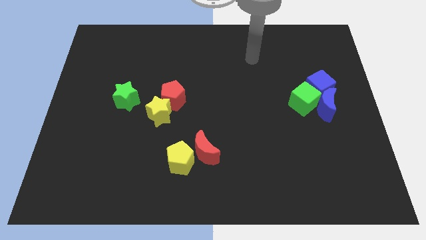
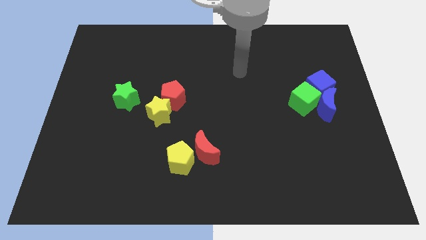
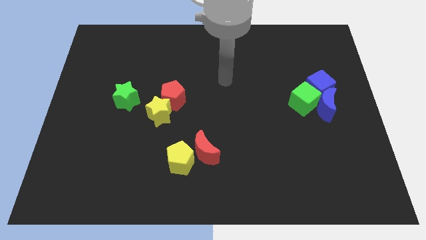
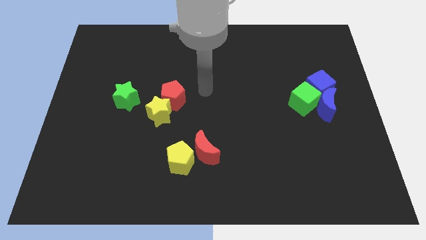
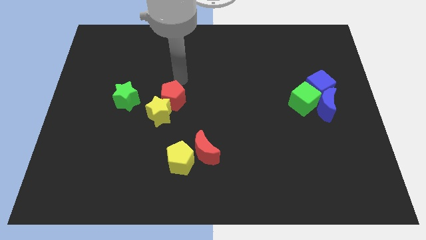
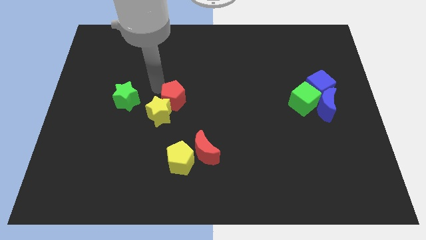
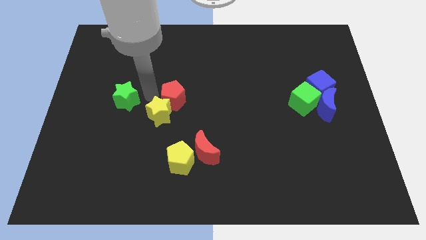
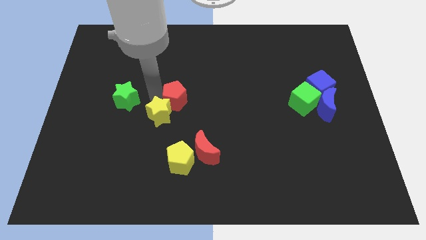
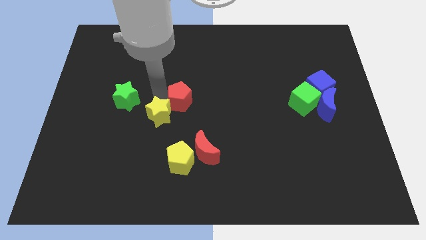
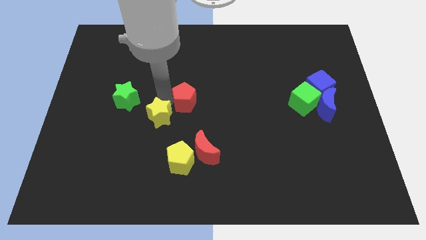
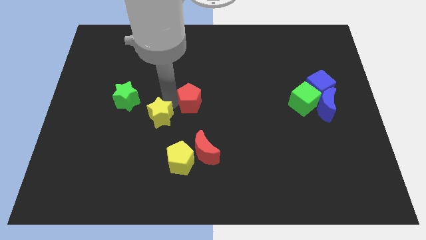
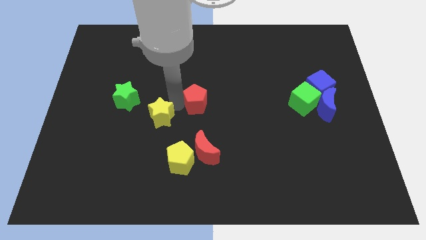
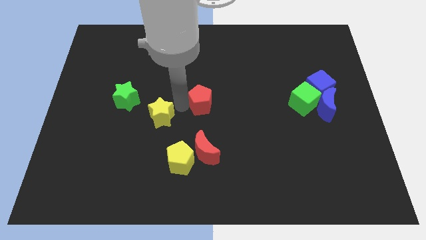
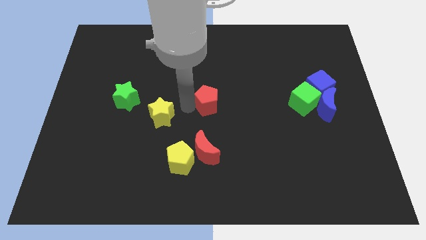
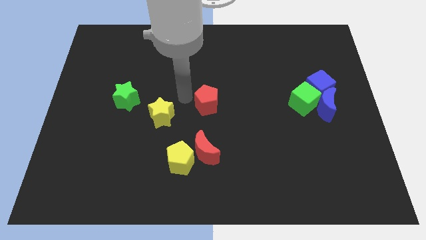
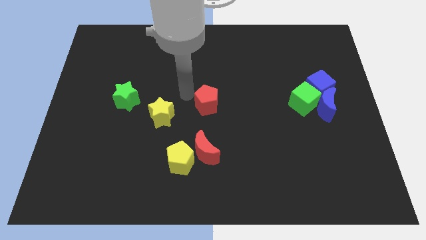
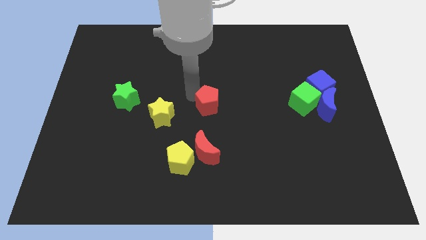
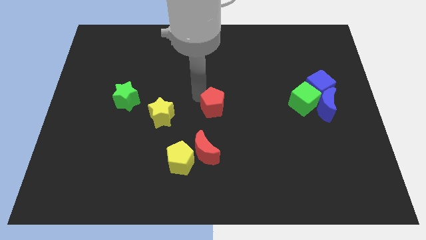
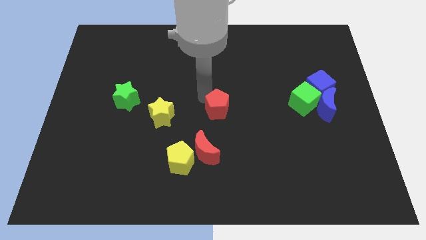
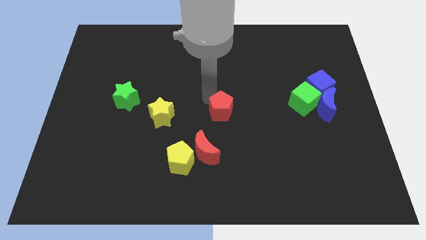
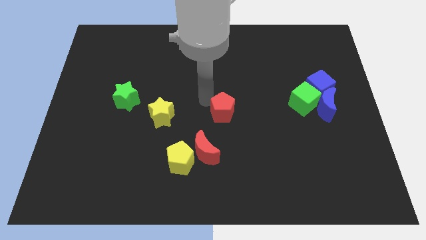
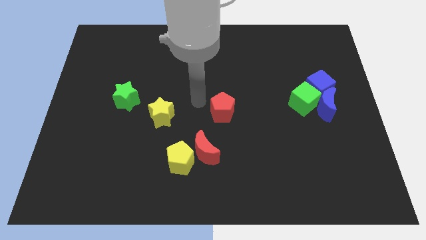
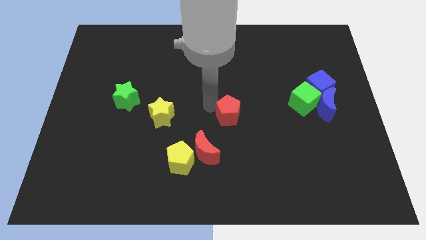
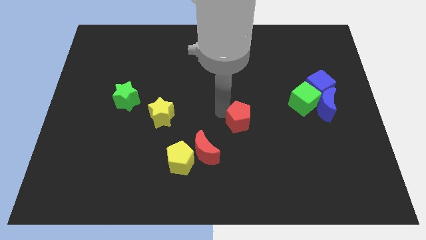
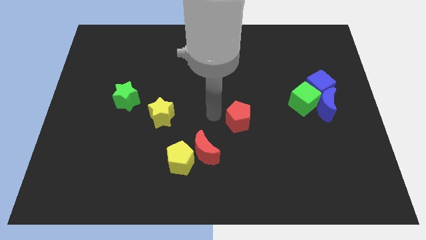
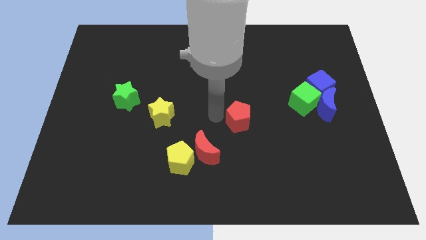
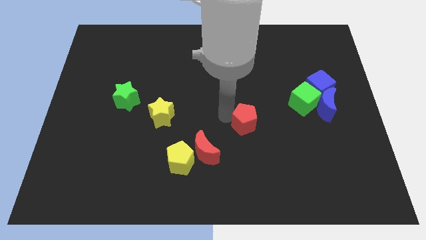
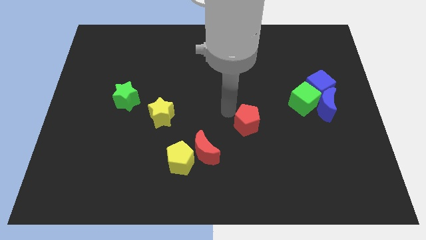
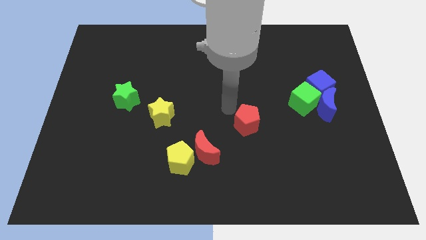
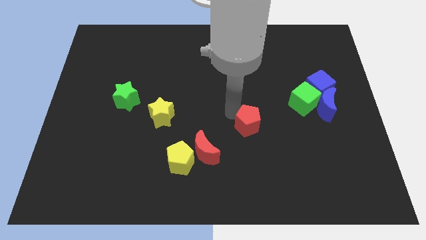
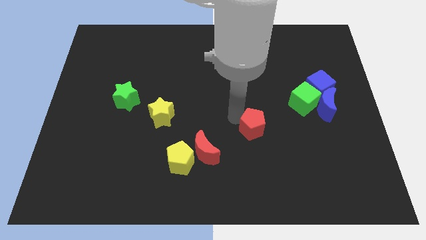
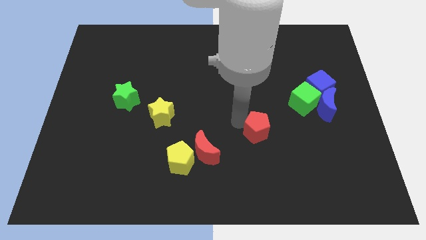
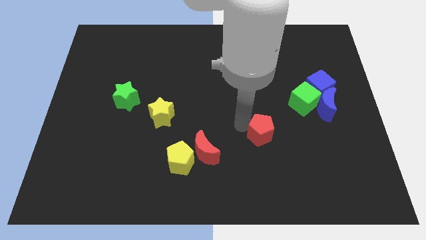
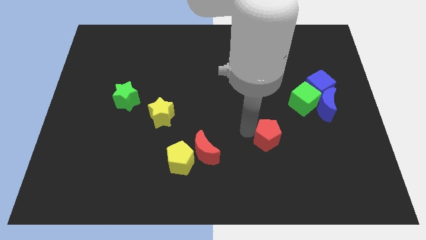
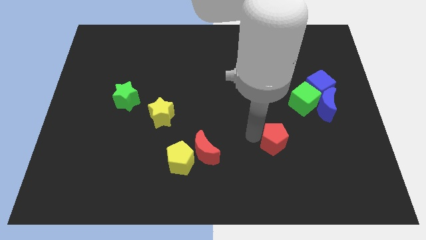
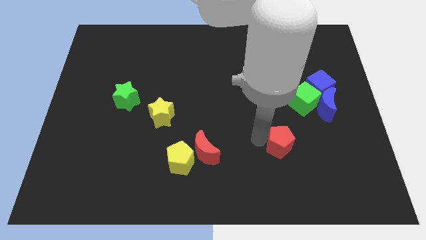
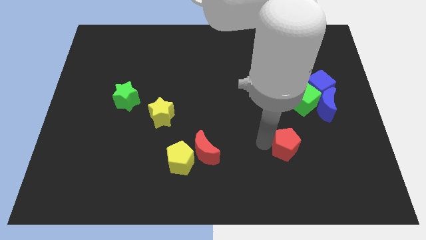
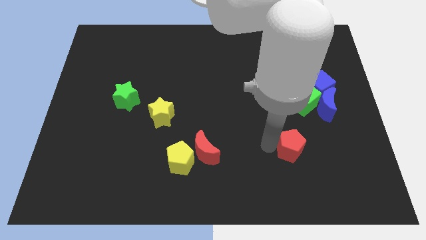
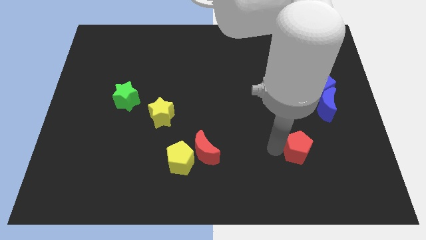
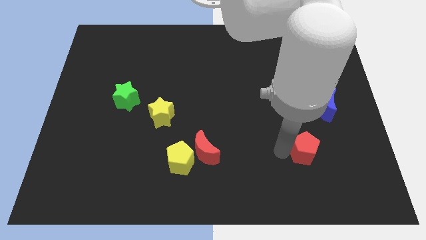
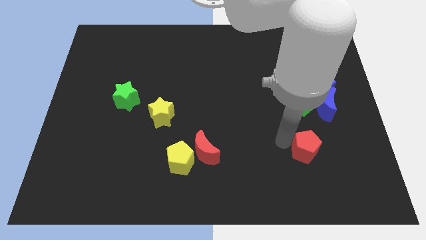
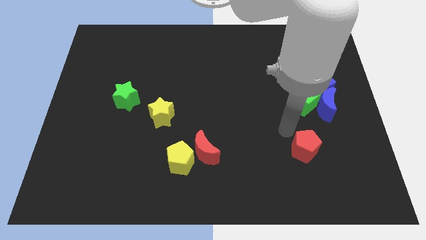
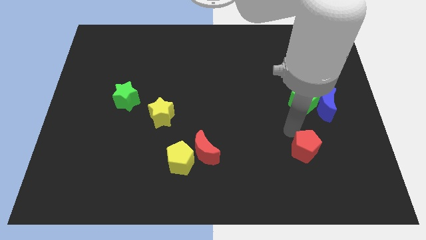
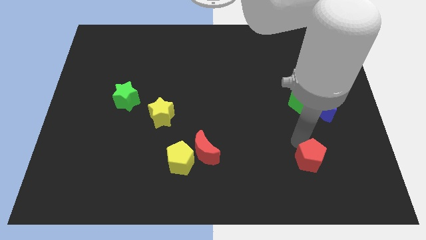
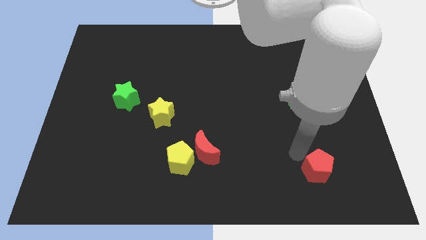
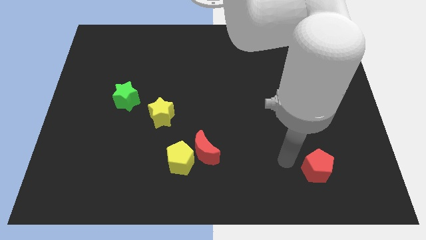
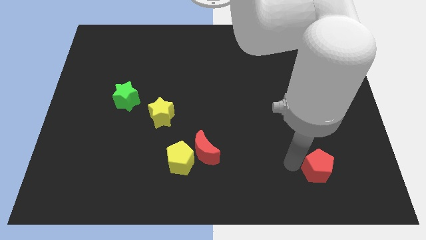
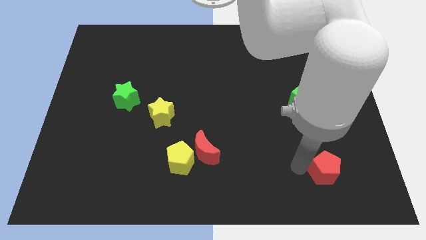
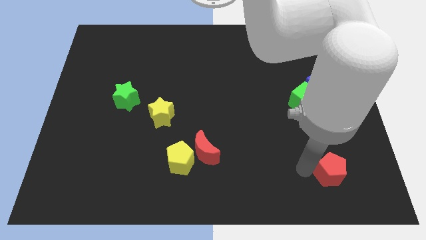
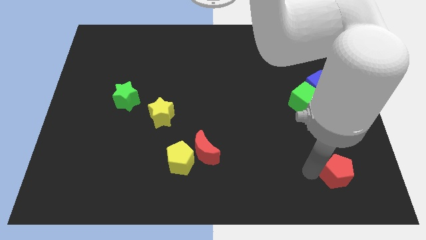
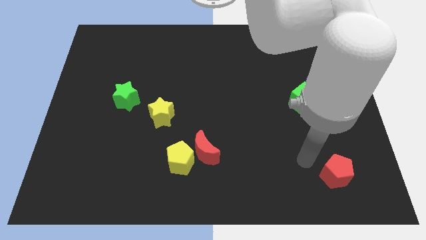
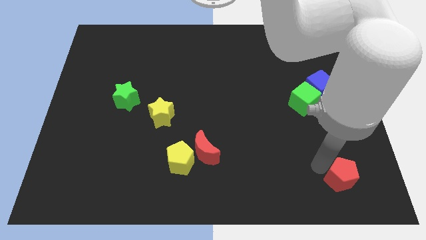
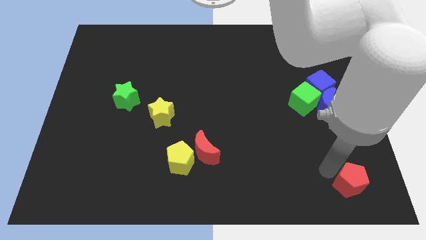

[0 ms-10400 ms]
push the red pentagon to the lower right corner

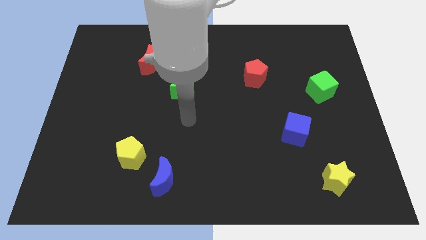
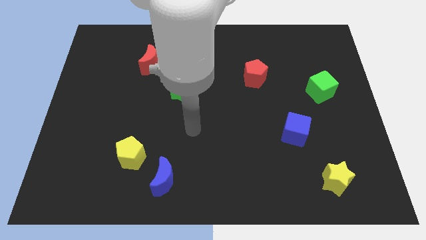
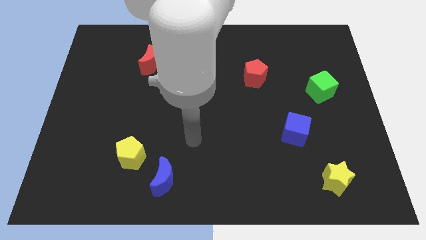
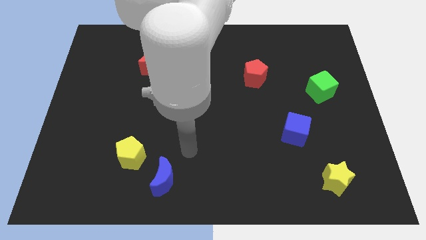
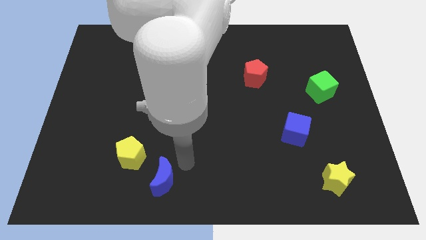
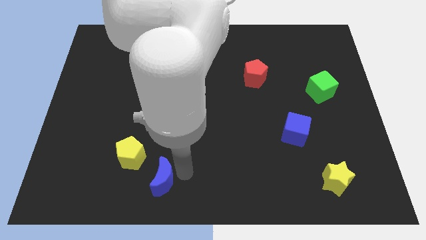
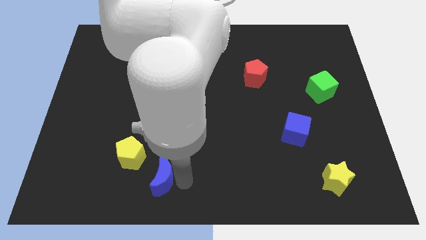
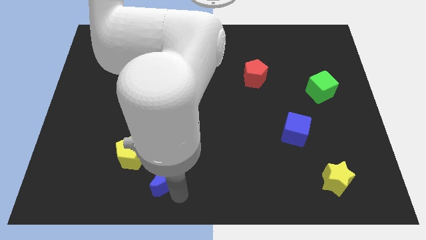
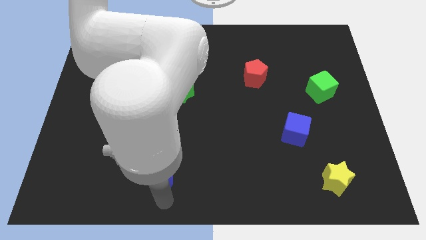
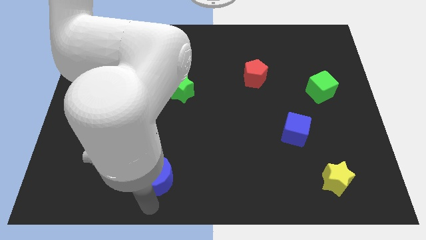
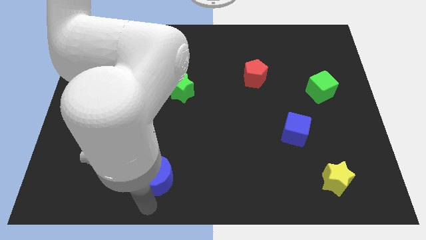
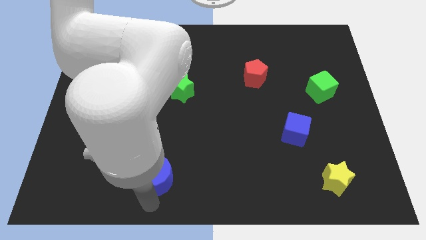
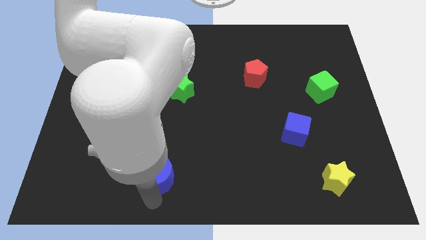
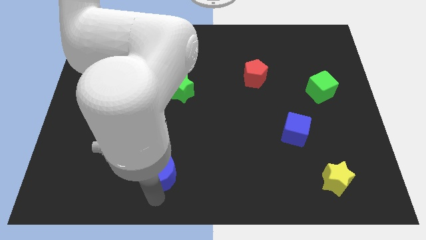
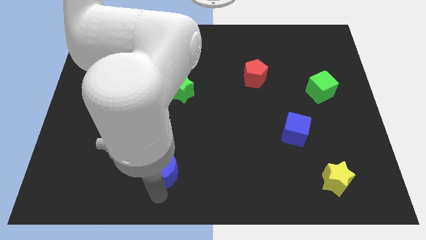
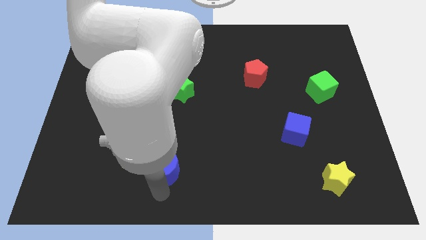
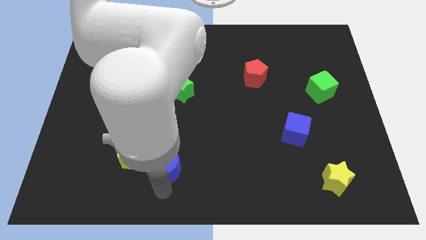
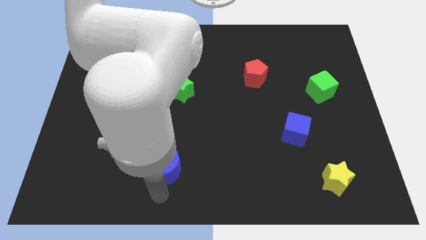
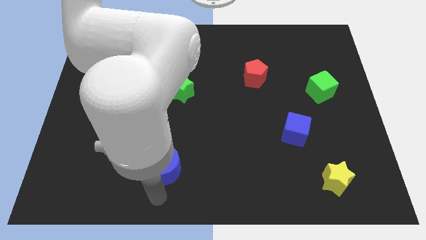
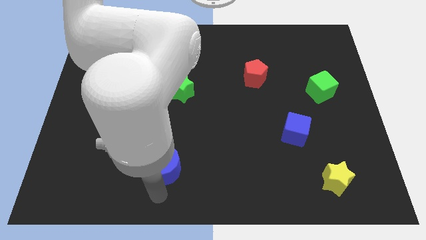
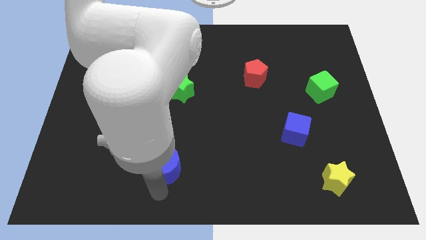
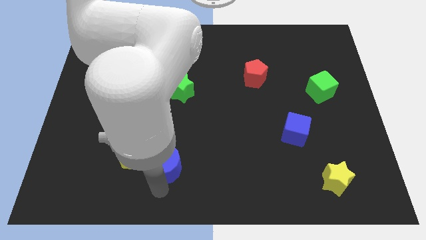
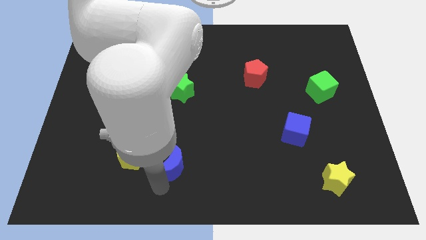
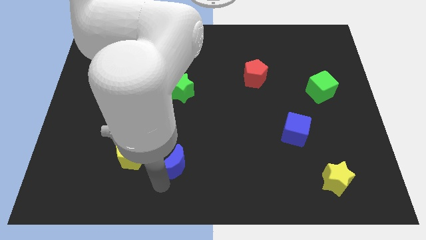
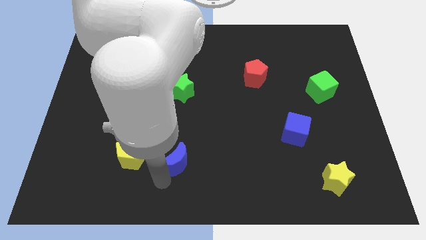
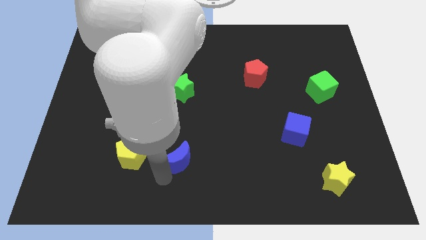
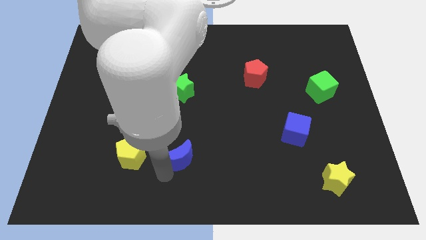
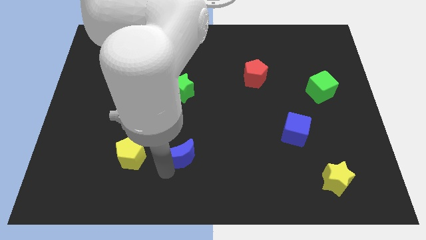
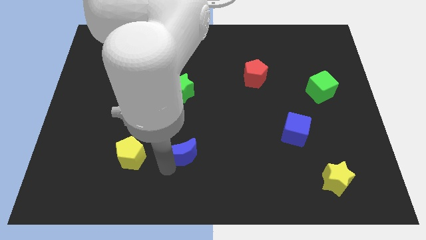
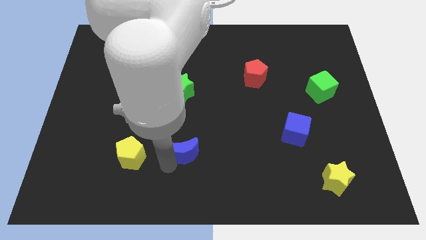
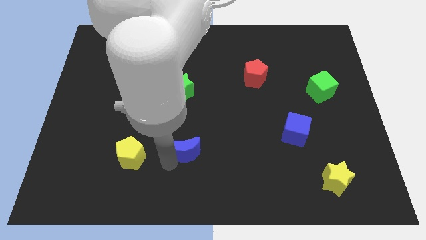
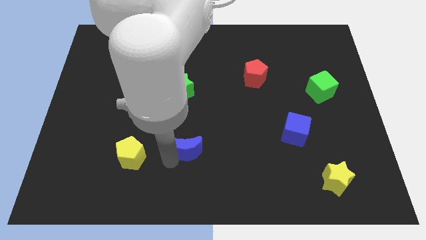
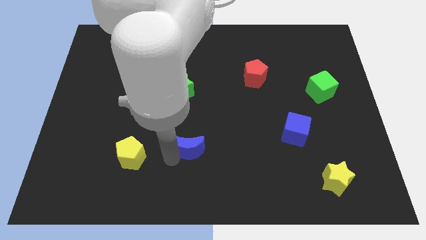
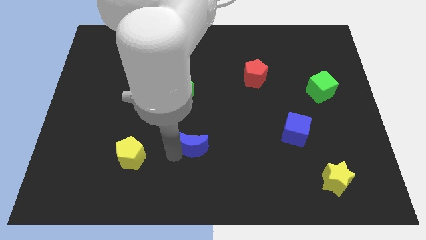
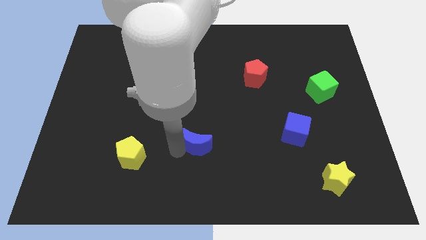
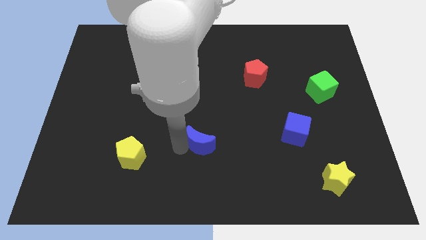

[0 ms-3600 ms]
push the blue moon to the middle of the board
